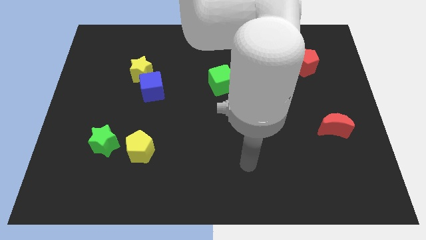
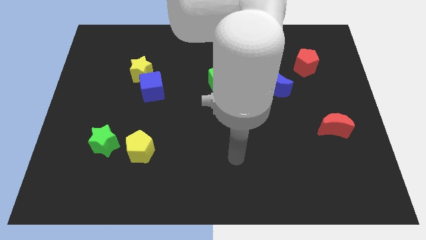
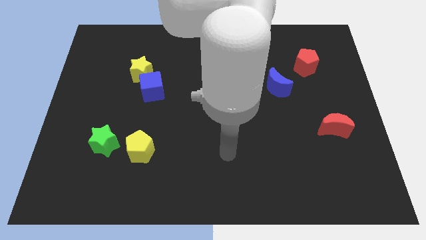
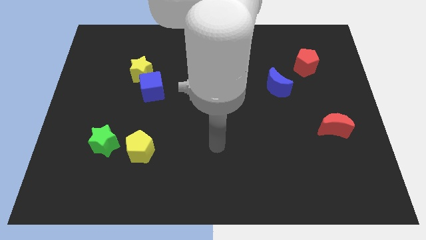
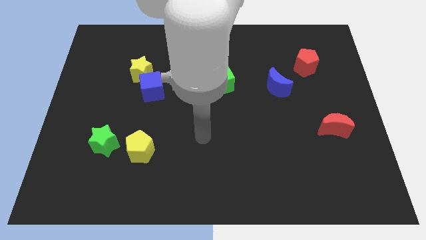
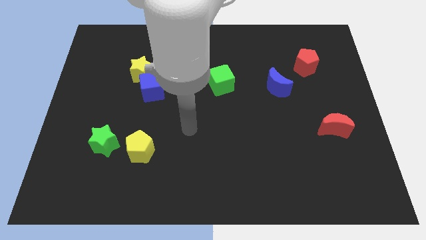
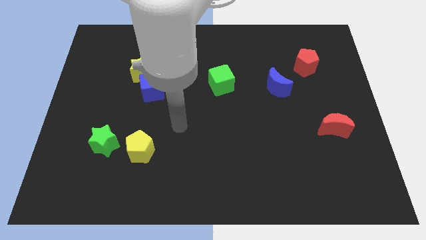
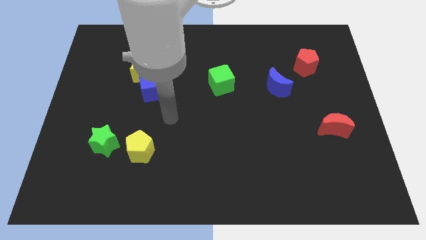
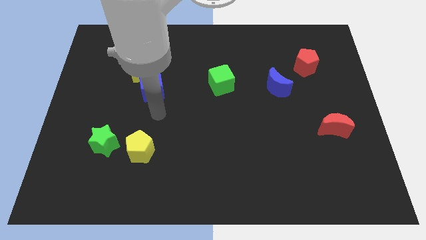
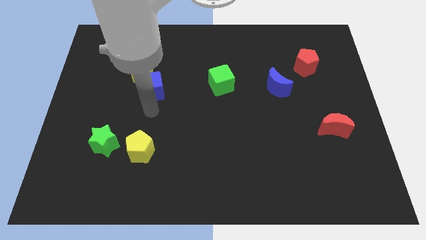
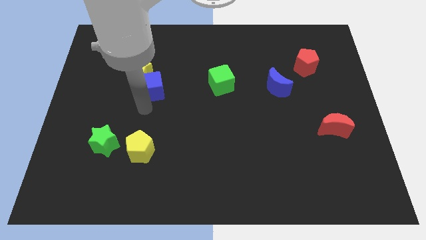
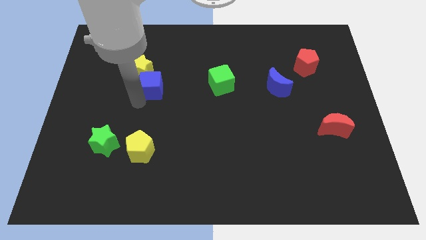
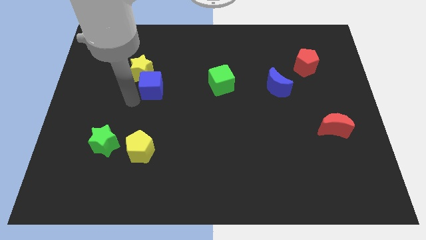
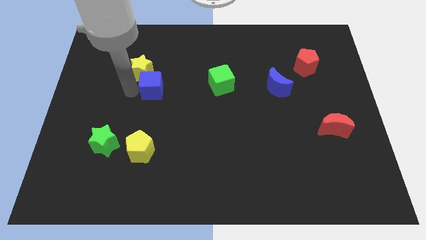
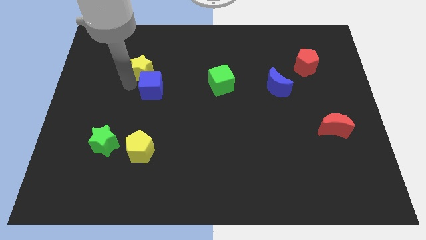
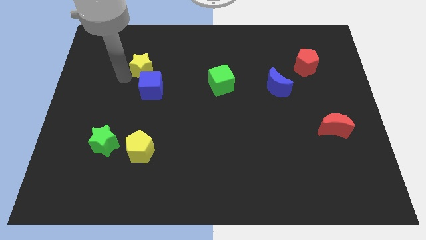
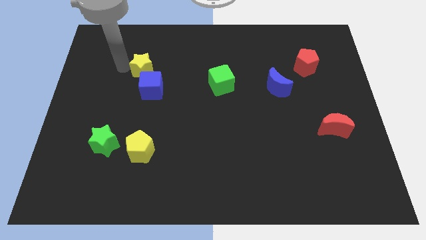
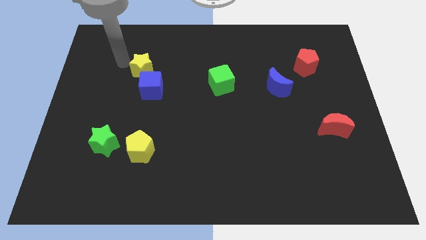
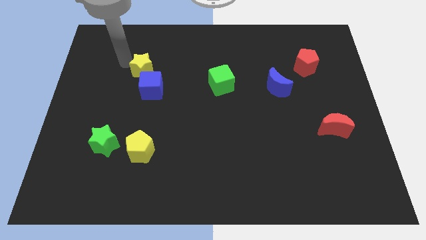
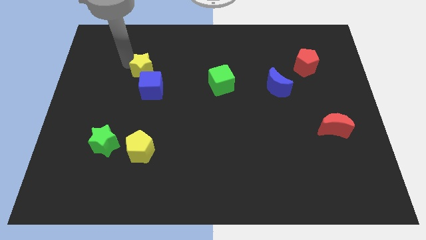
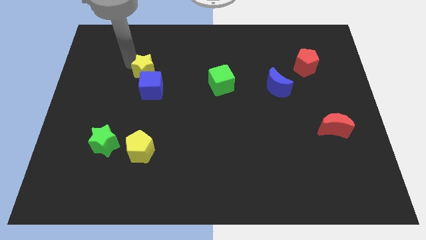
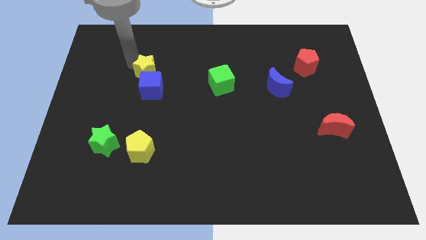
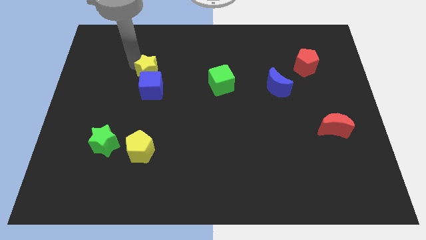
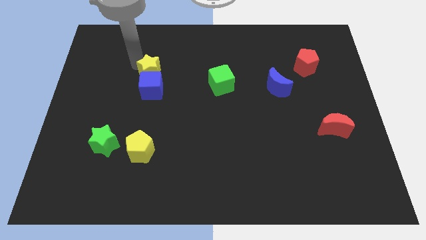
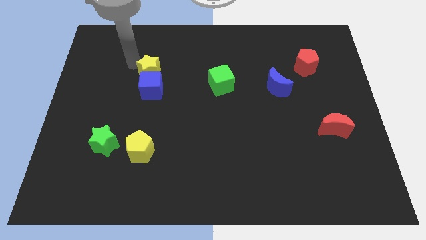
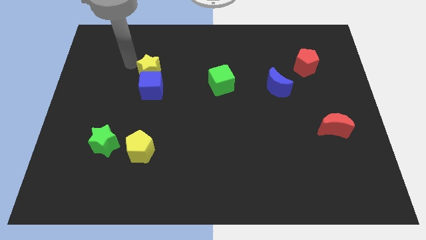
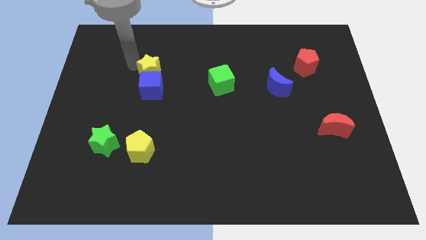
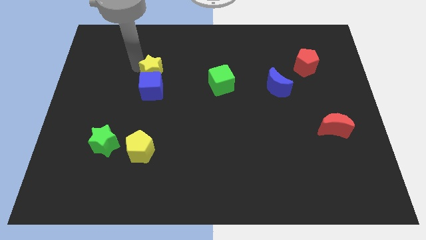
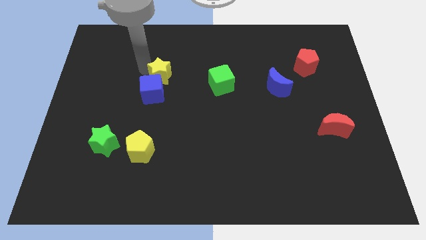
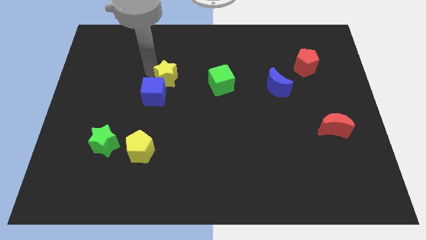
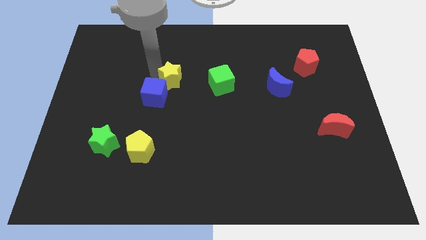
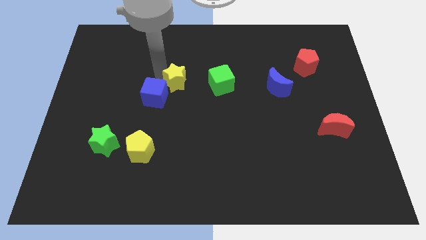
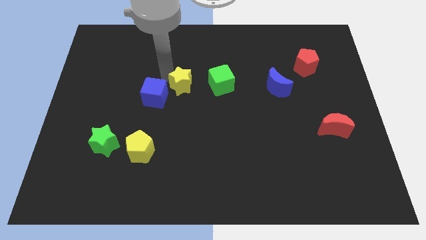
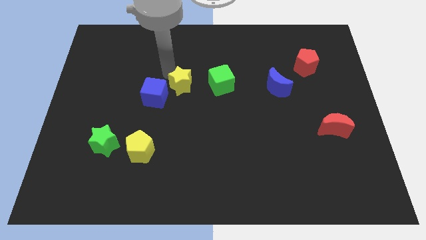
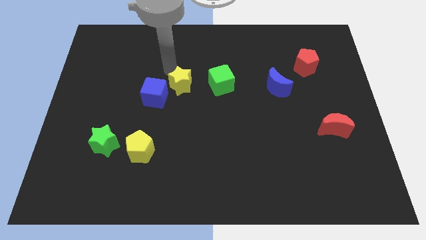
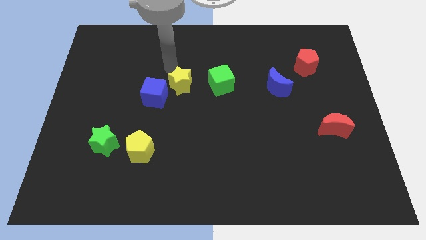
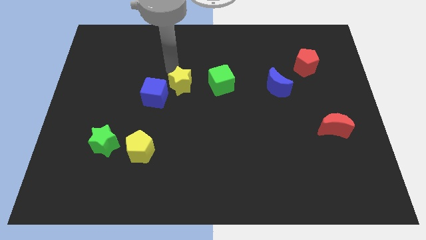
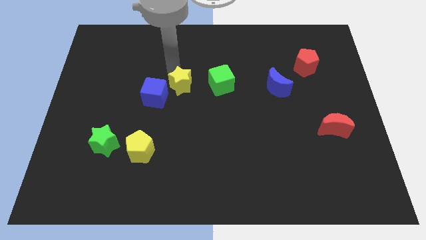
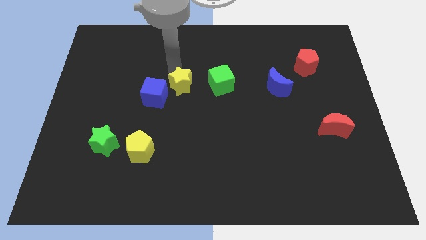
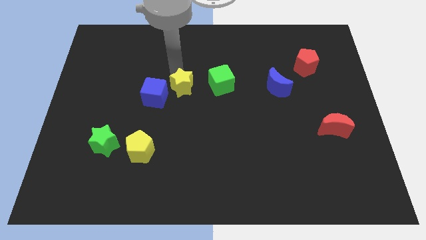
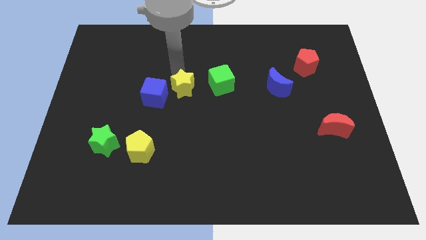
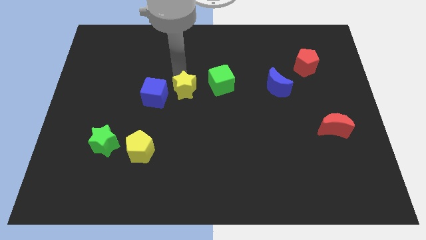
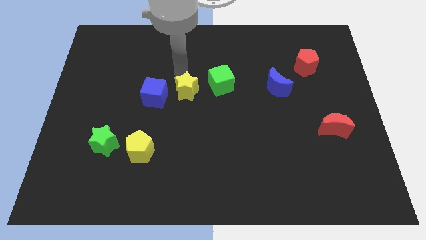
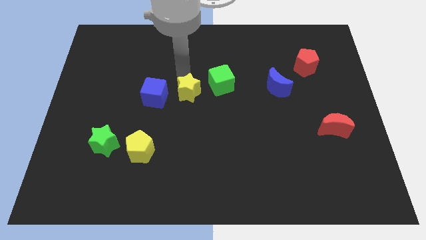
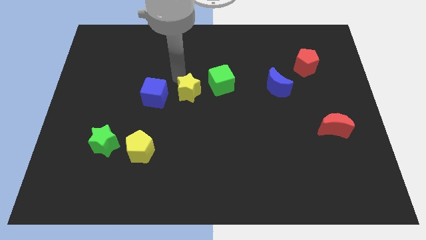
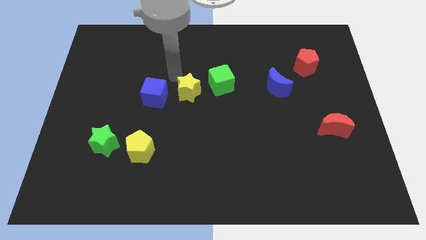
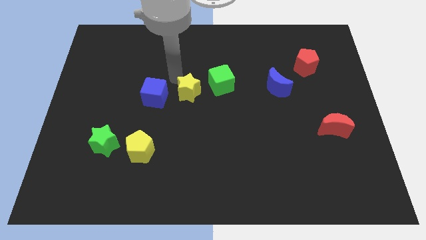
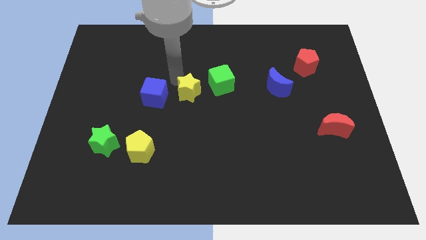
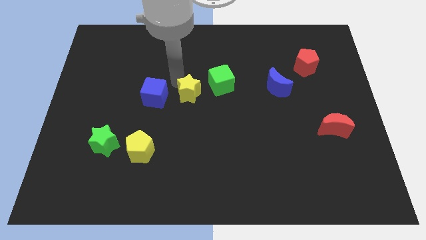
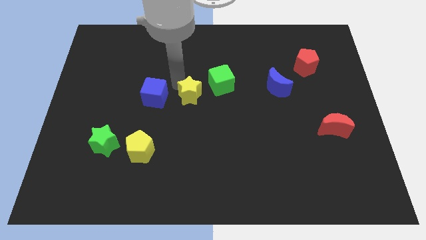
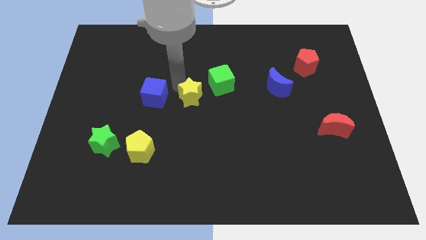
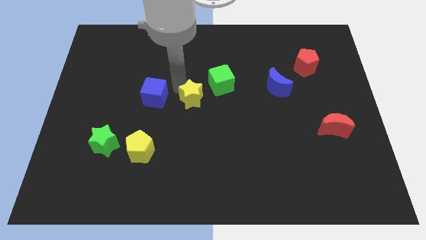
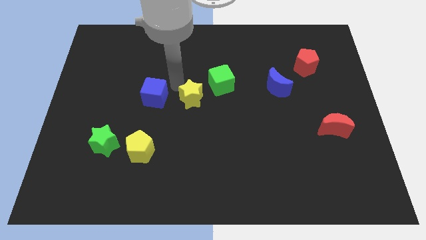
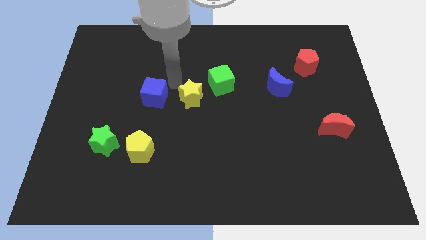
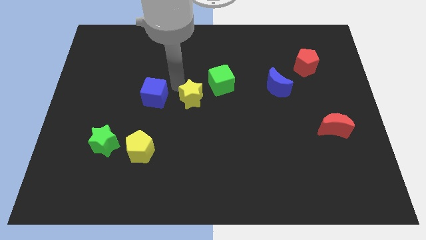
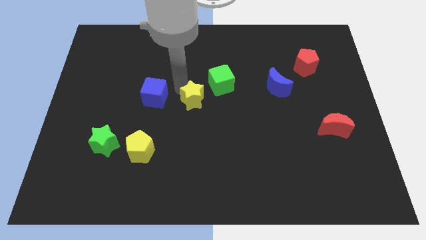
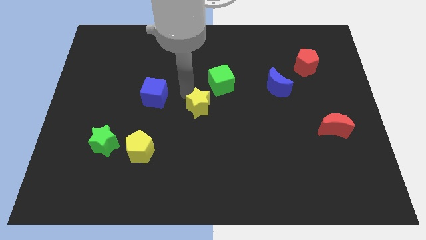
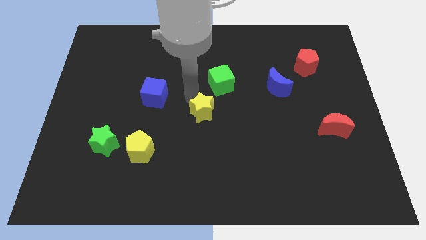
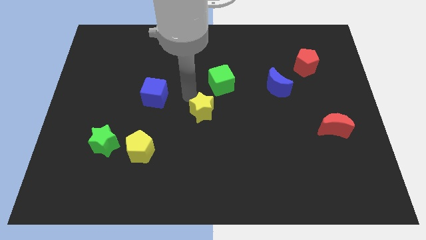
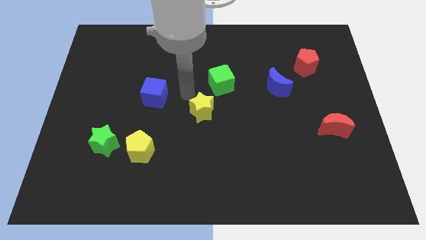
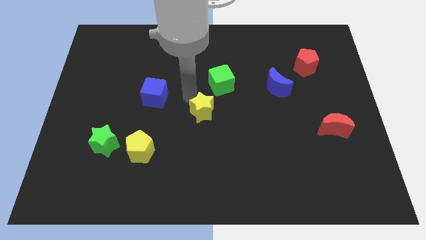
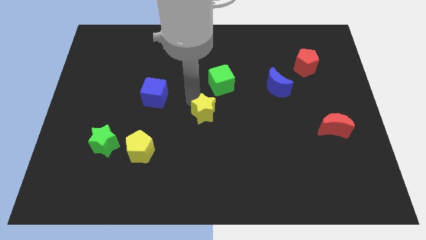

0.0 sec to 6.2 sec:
move the yellow star down and right

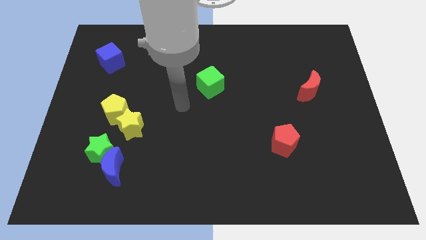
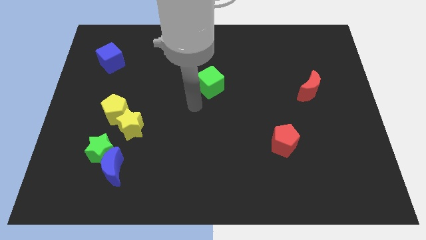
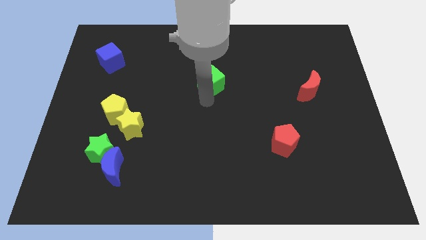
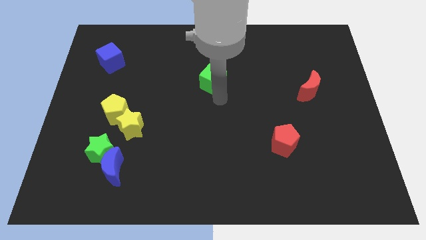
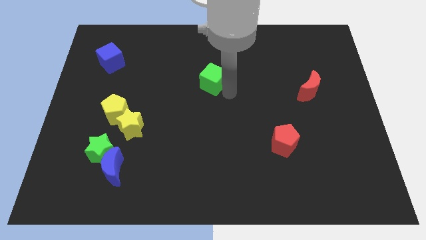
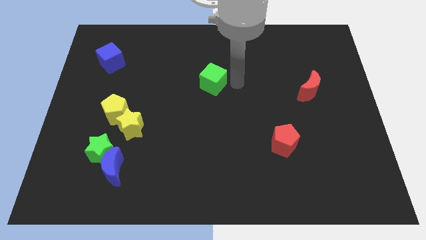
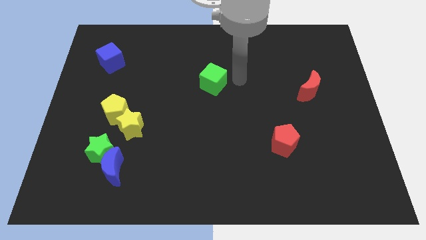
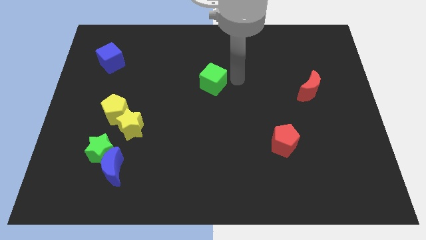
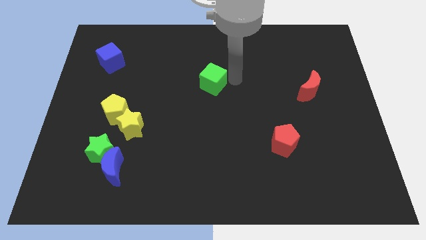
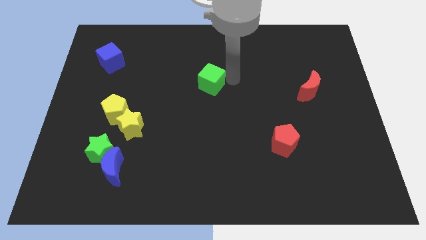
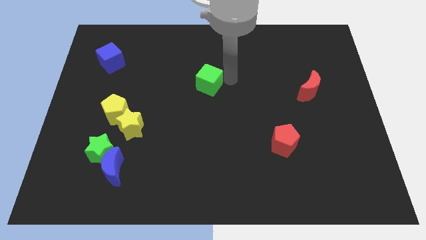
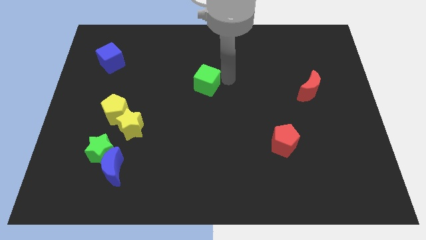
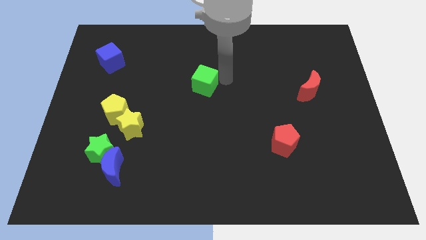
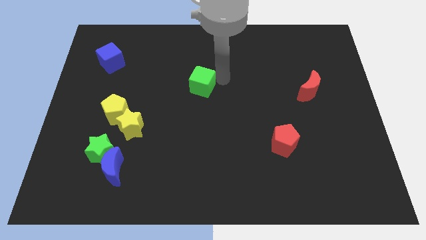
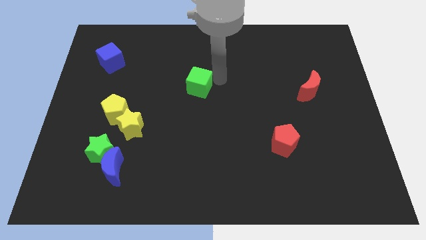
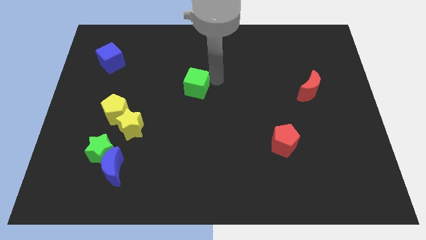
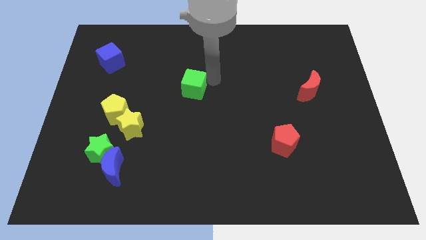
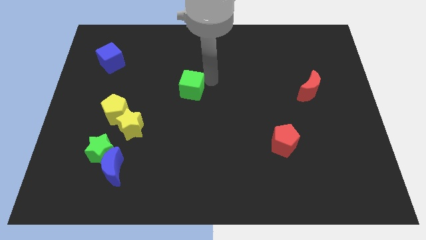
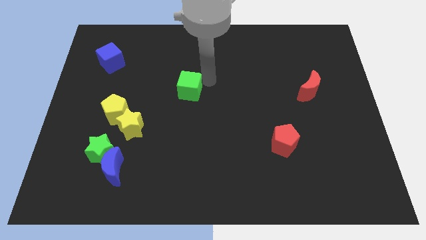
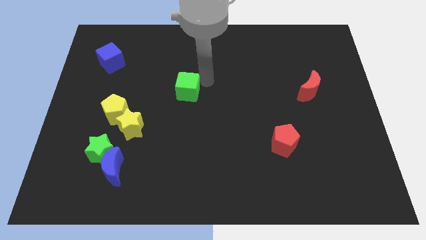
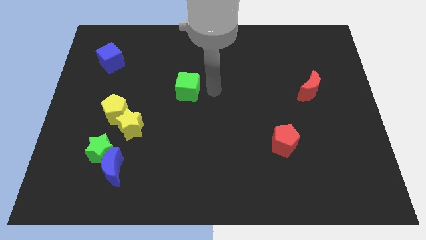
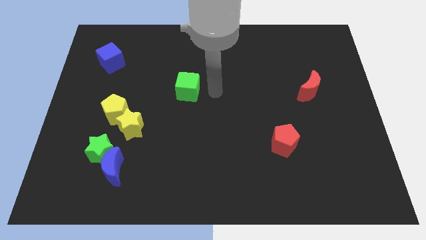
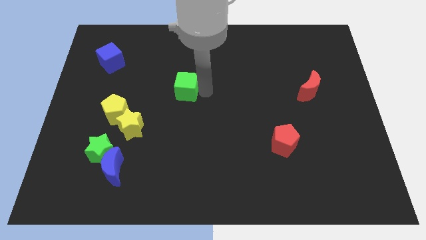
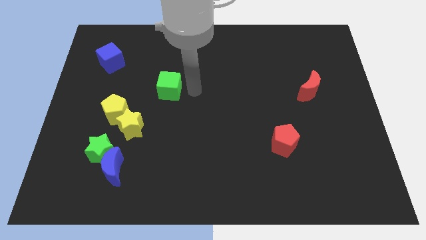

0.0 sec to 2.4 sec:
move the green cube to the left somewhat
